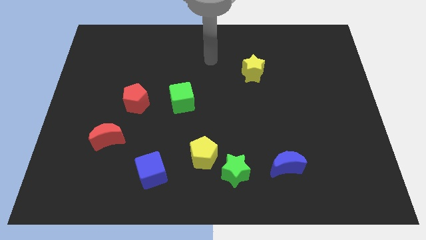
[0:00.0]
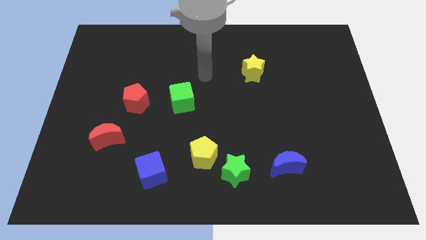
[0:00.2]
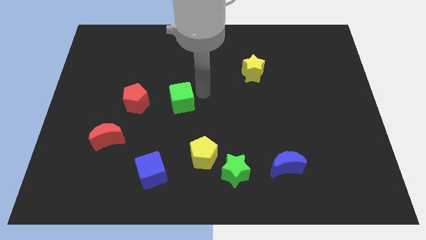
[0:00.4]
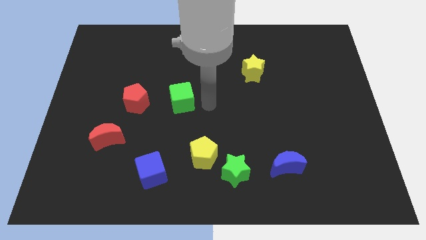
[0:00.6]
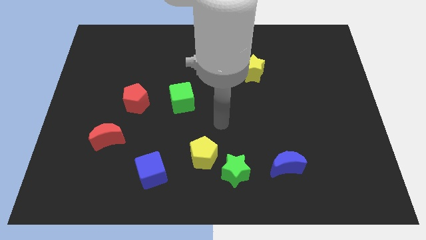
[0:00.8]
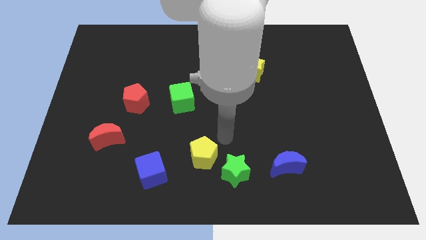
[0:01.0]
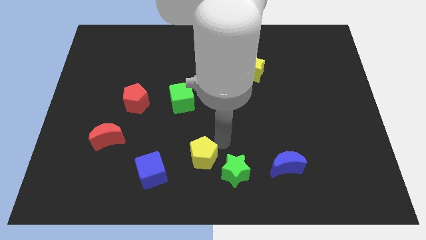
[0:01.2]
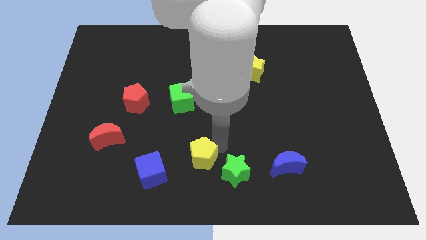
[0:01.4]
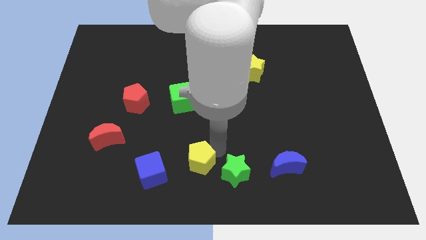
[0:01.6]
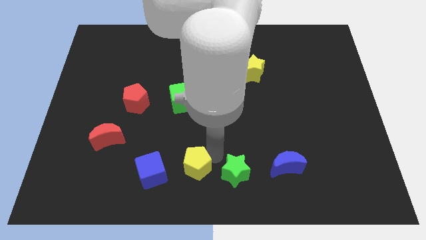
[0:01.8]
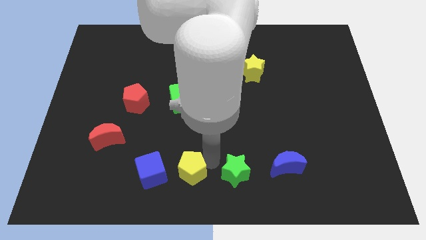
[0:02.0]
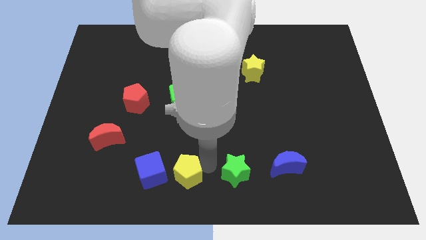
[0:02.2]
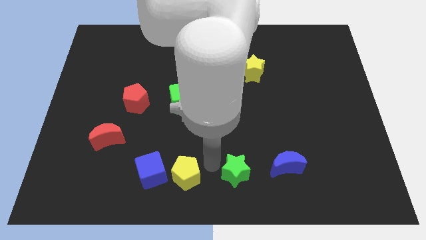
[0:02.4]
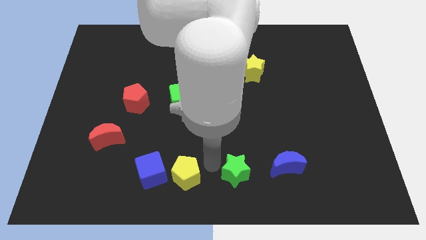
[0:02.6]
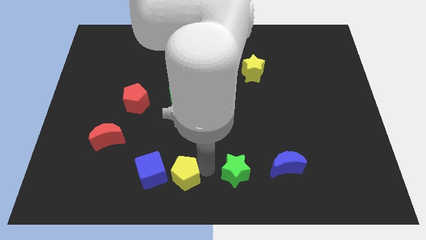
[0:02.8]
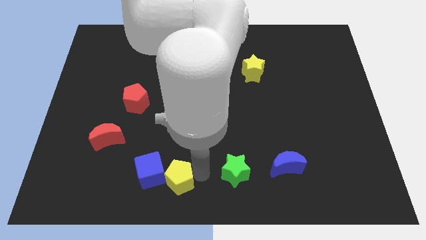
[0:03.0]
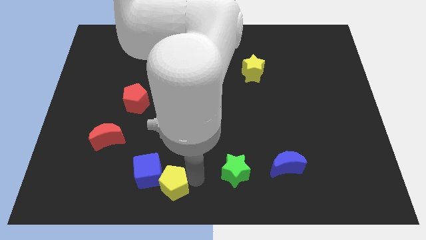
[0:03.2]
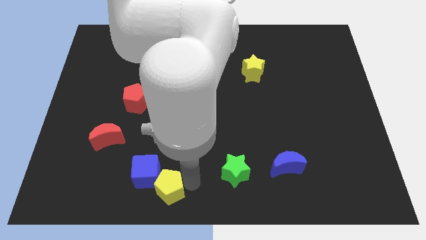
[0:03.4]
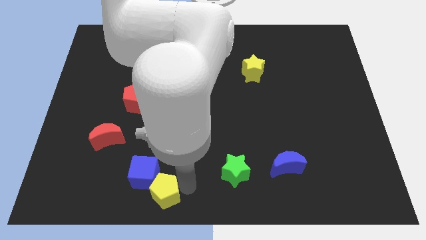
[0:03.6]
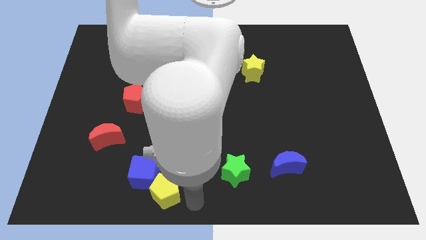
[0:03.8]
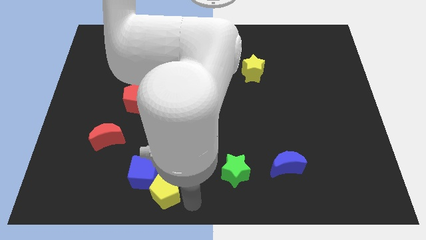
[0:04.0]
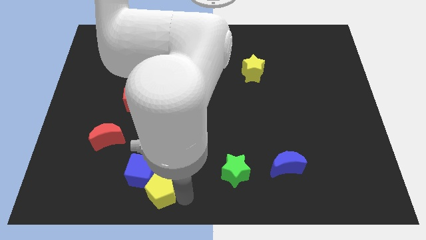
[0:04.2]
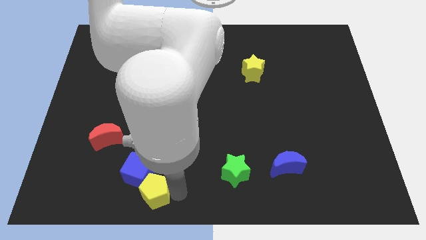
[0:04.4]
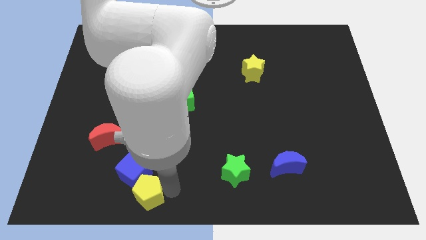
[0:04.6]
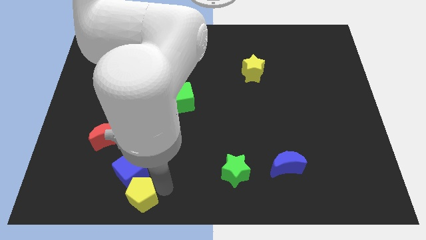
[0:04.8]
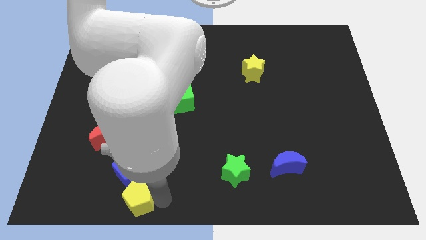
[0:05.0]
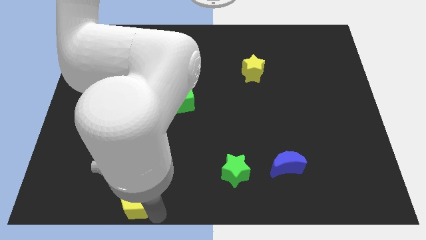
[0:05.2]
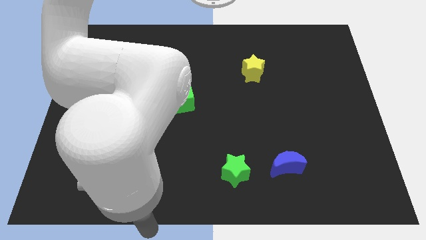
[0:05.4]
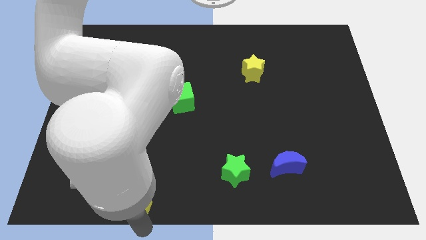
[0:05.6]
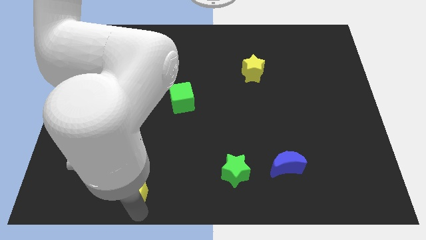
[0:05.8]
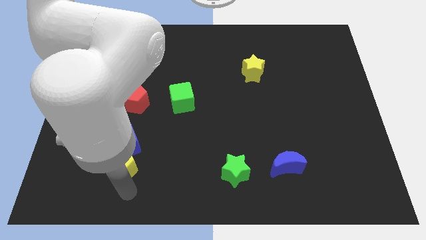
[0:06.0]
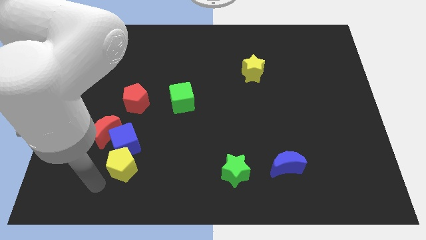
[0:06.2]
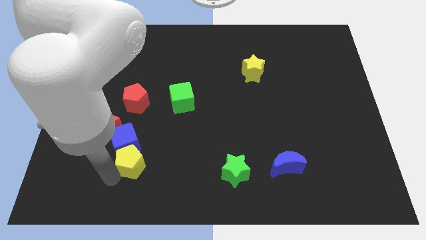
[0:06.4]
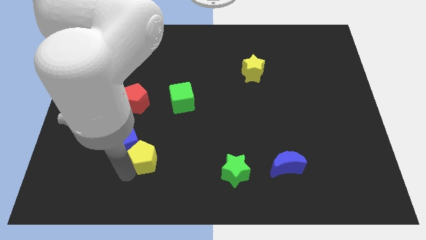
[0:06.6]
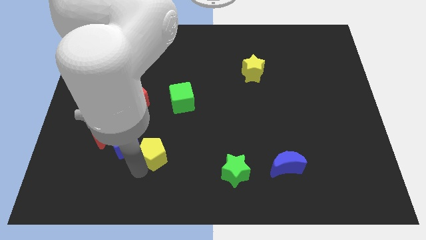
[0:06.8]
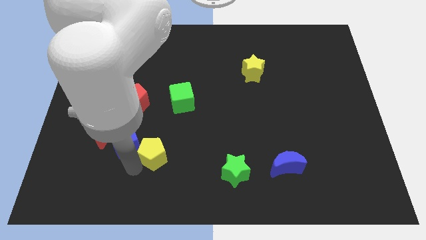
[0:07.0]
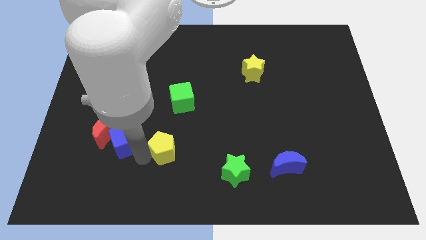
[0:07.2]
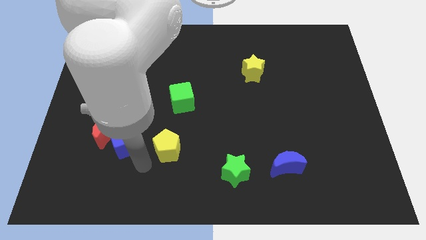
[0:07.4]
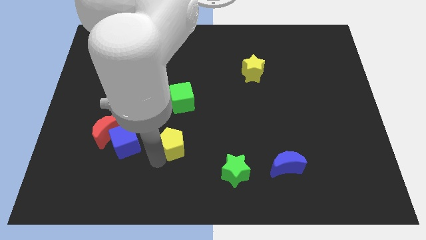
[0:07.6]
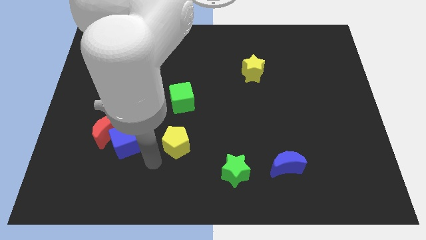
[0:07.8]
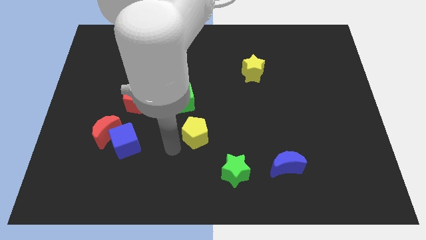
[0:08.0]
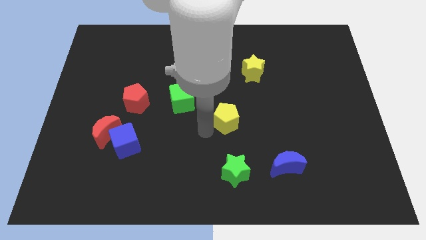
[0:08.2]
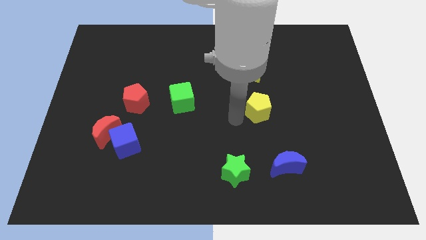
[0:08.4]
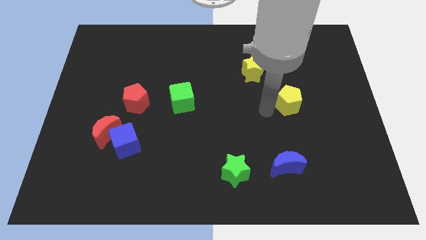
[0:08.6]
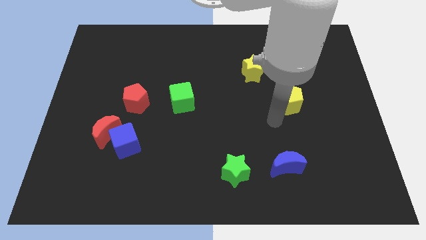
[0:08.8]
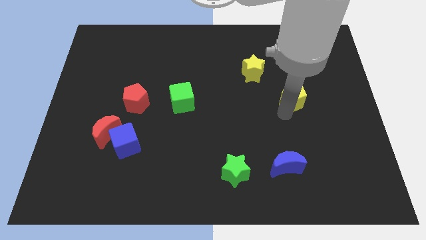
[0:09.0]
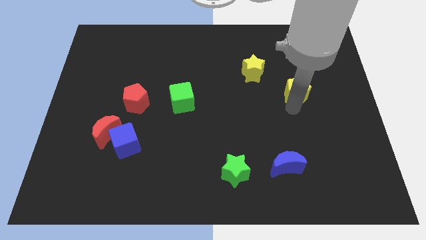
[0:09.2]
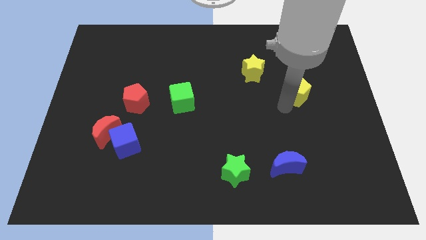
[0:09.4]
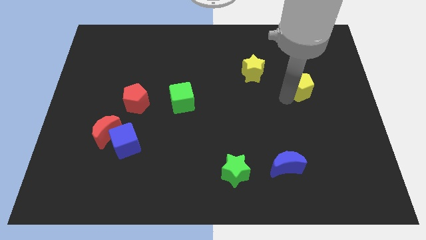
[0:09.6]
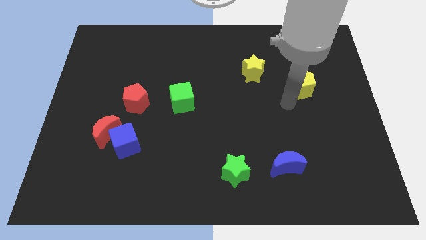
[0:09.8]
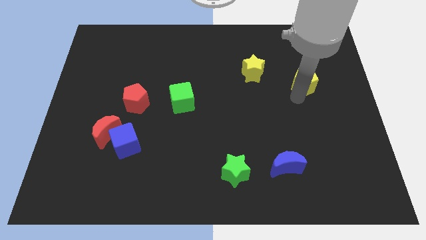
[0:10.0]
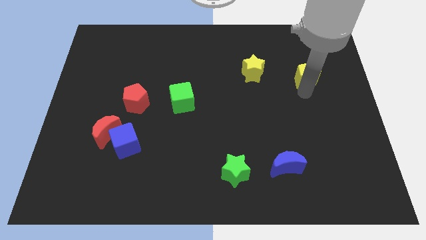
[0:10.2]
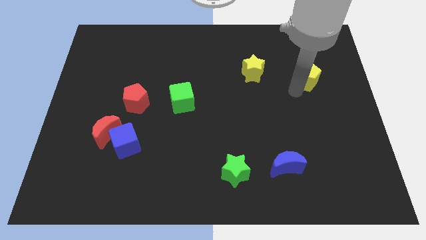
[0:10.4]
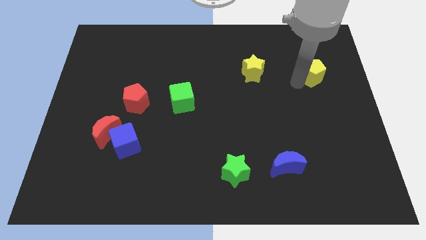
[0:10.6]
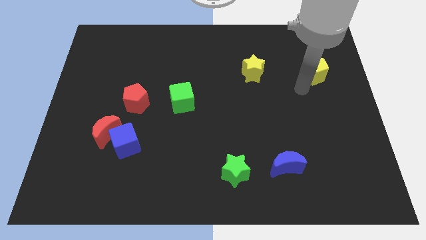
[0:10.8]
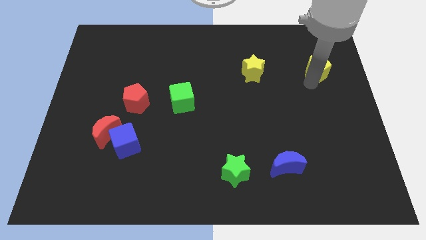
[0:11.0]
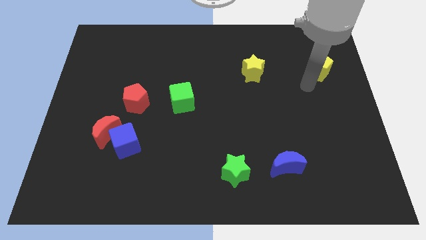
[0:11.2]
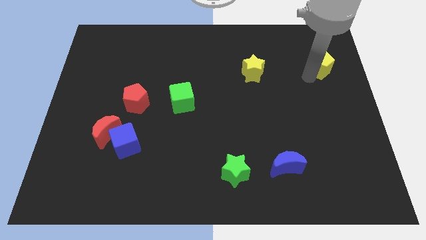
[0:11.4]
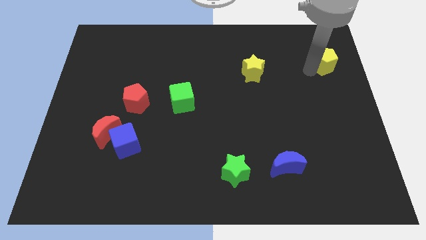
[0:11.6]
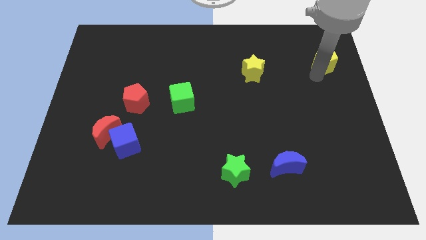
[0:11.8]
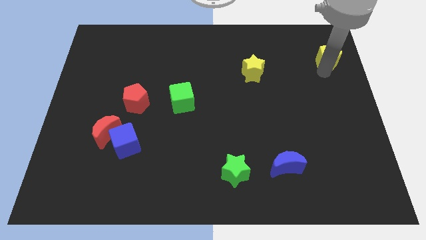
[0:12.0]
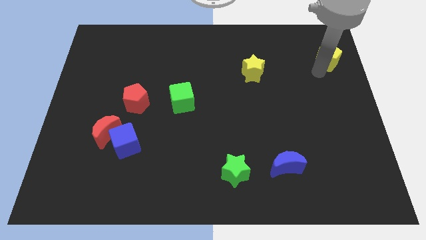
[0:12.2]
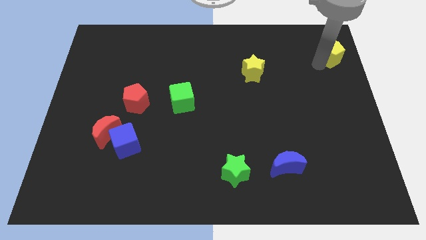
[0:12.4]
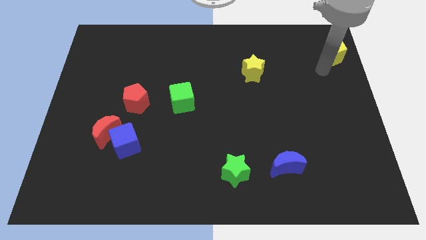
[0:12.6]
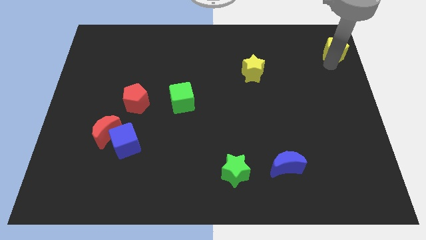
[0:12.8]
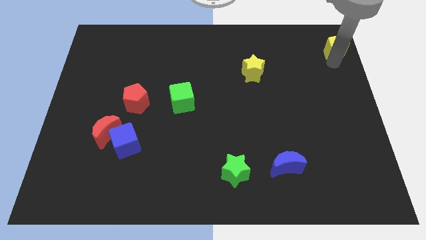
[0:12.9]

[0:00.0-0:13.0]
push the yellow pentagon to the upper right corner

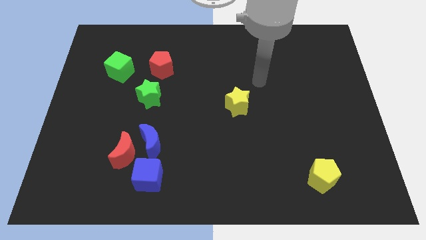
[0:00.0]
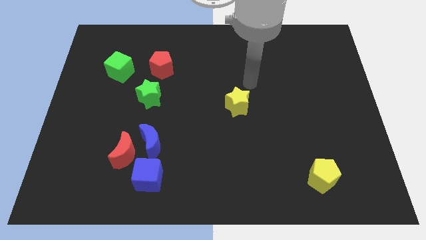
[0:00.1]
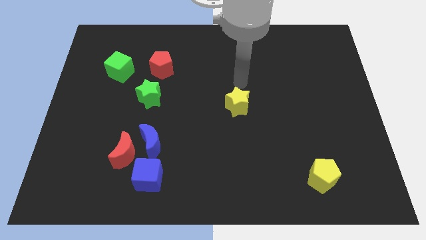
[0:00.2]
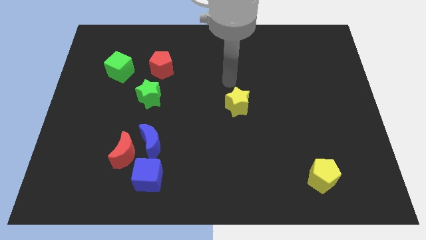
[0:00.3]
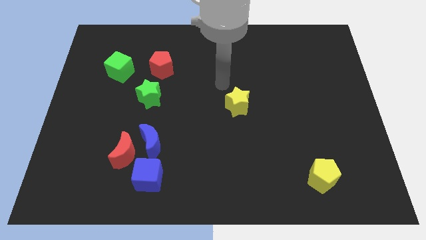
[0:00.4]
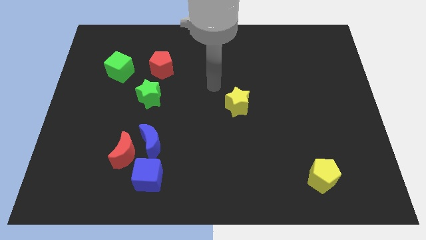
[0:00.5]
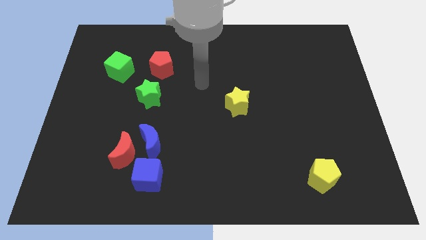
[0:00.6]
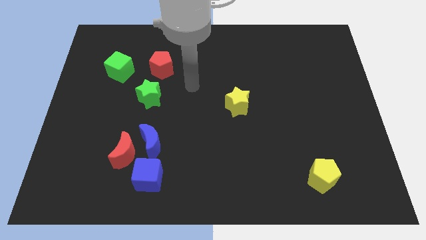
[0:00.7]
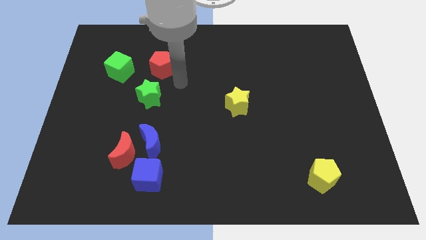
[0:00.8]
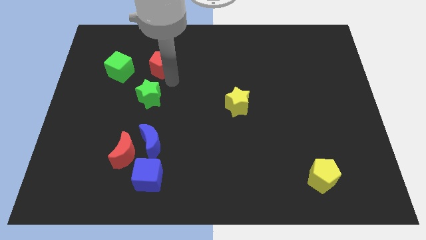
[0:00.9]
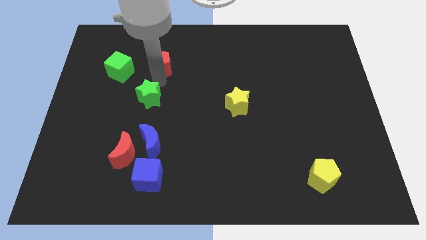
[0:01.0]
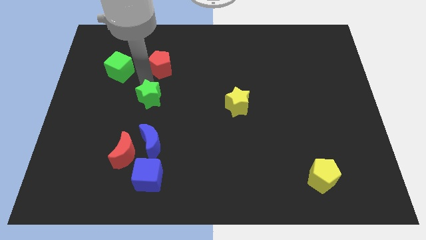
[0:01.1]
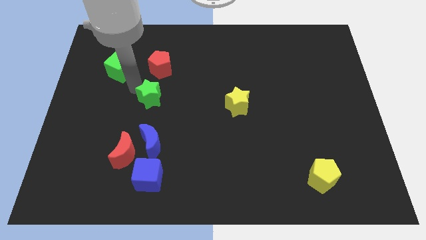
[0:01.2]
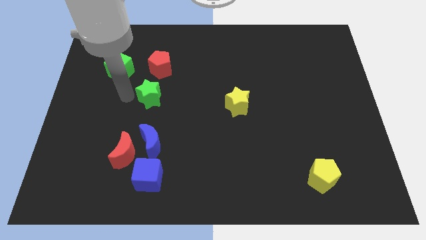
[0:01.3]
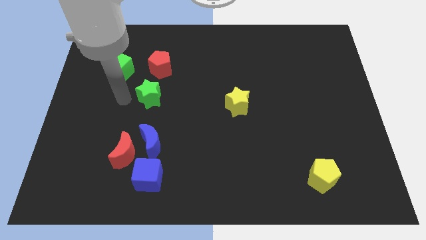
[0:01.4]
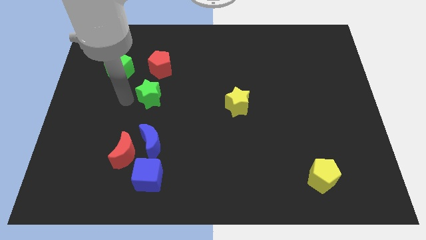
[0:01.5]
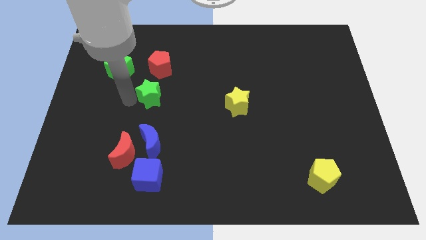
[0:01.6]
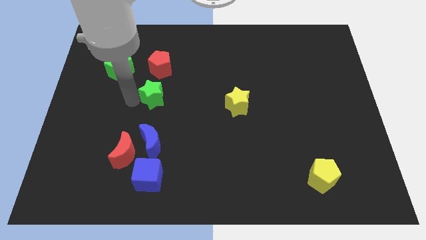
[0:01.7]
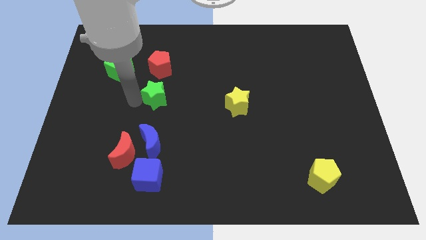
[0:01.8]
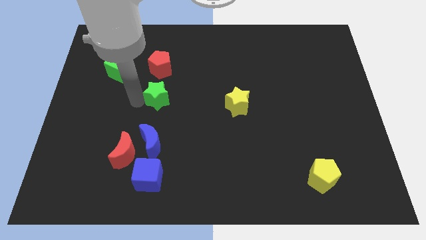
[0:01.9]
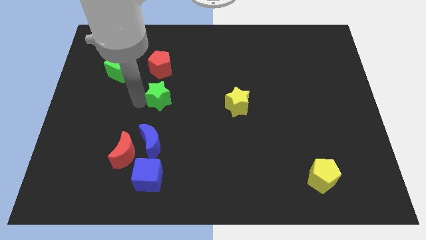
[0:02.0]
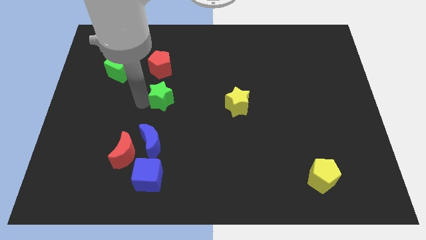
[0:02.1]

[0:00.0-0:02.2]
slide the green star to the center of the board
